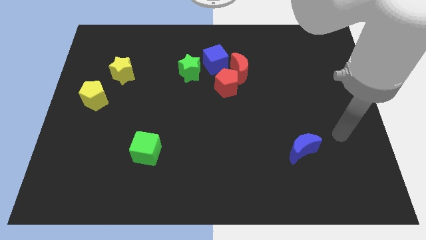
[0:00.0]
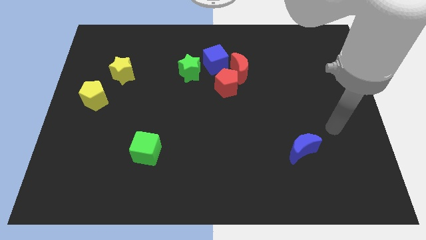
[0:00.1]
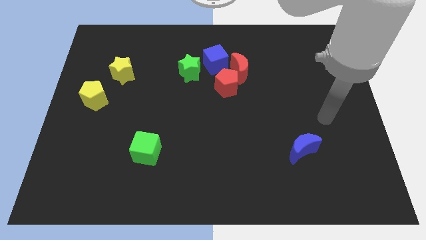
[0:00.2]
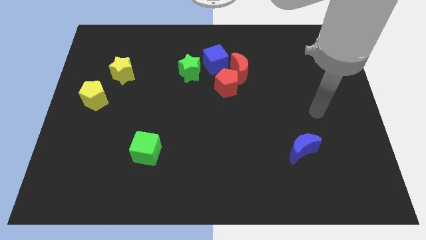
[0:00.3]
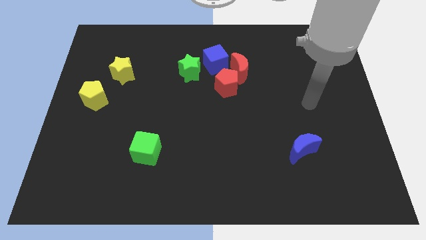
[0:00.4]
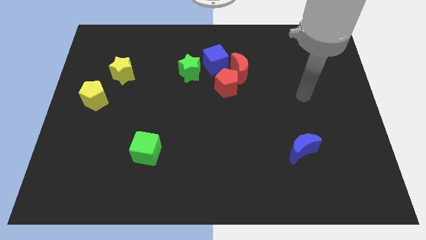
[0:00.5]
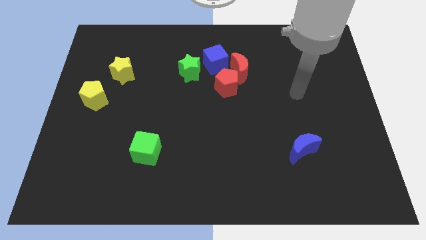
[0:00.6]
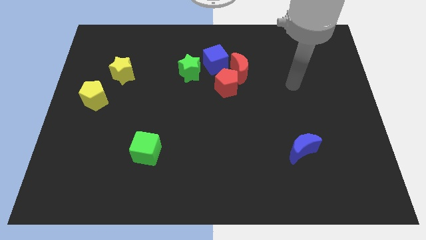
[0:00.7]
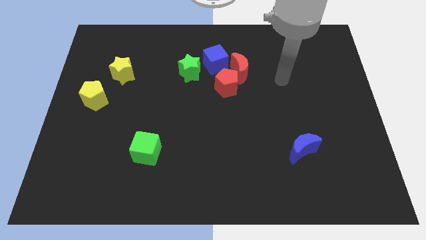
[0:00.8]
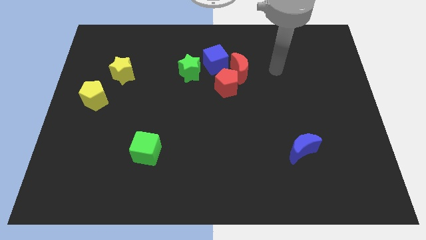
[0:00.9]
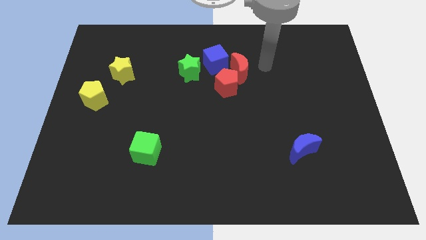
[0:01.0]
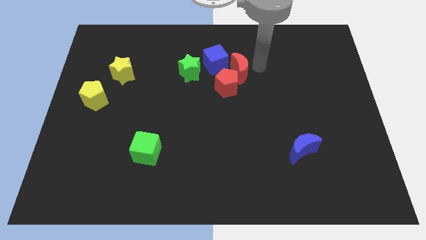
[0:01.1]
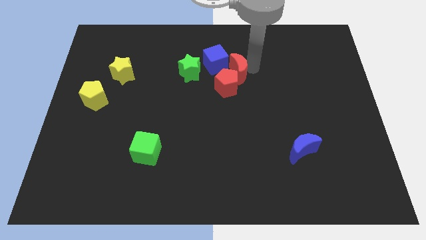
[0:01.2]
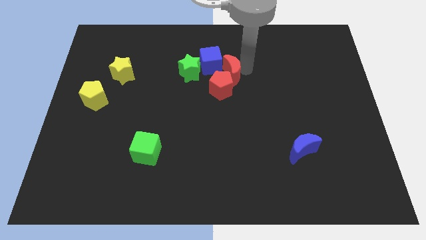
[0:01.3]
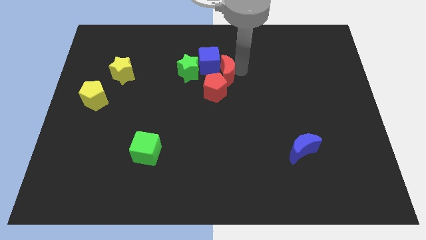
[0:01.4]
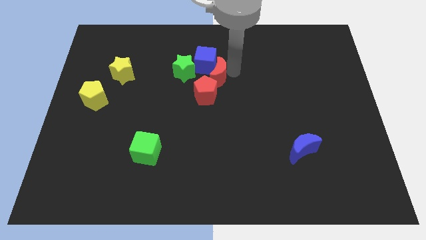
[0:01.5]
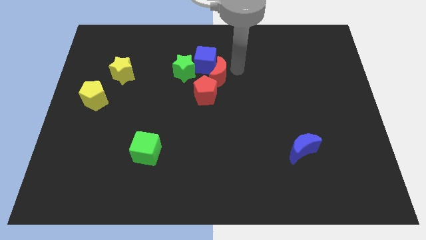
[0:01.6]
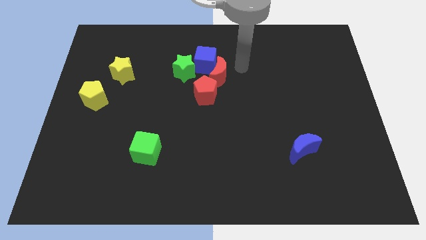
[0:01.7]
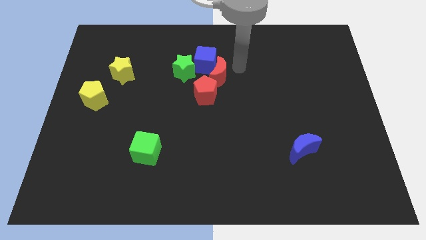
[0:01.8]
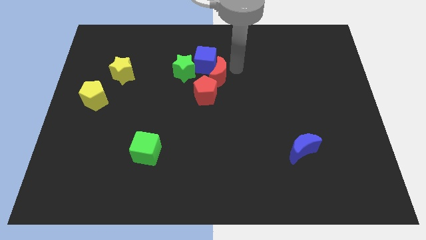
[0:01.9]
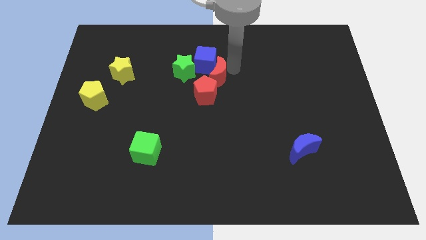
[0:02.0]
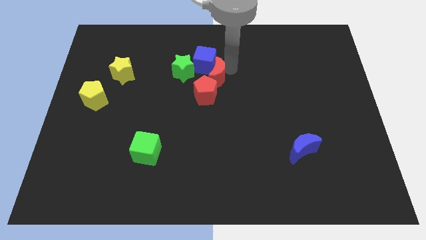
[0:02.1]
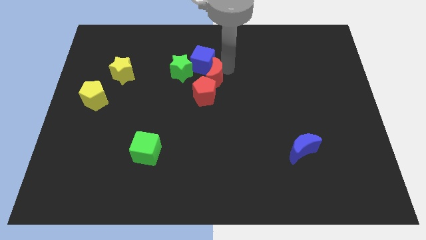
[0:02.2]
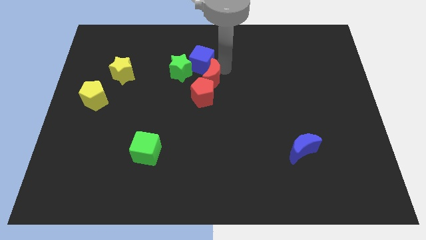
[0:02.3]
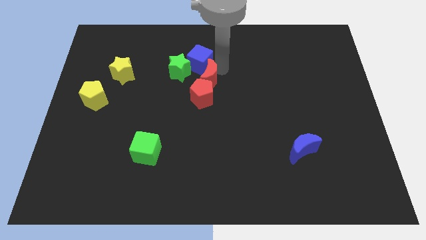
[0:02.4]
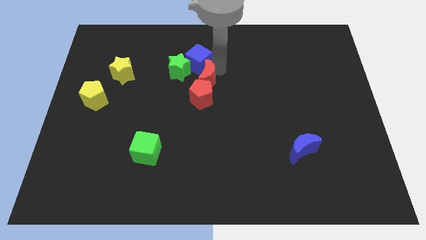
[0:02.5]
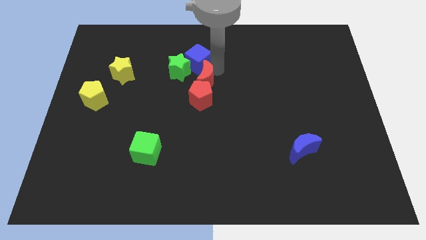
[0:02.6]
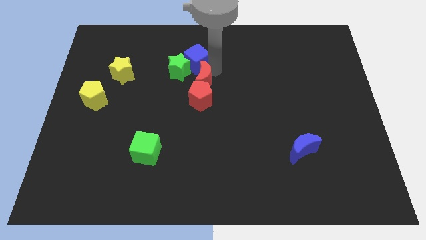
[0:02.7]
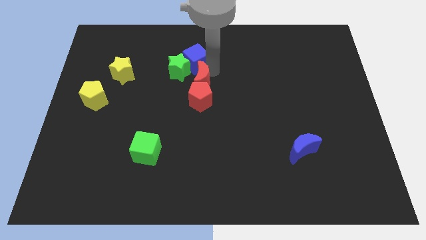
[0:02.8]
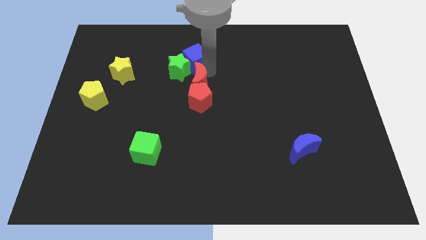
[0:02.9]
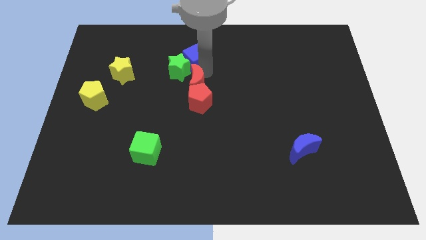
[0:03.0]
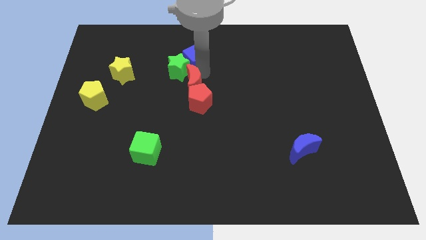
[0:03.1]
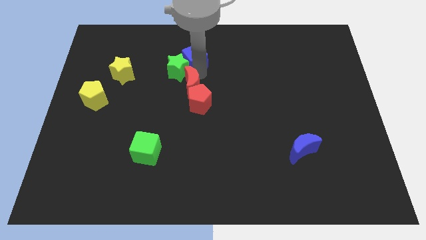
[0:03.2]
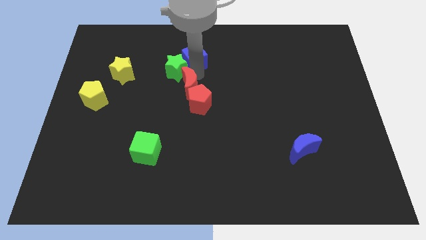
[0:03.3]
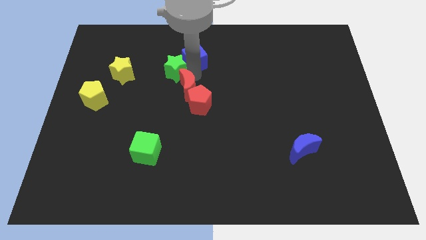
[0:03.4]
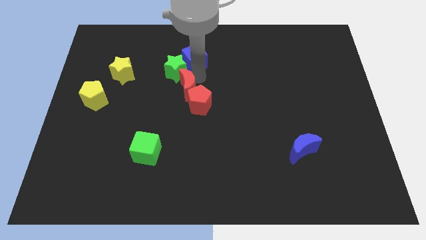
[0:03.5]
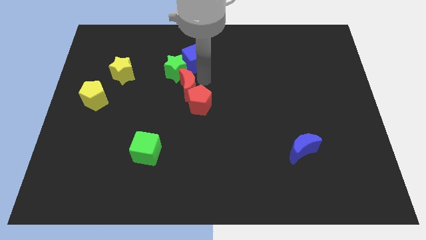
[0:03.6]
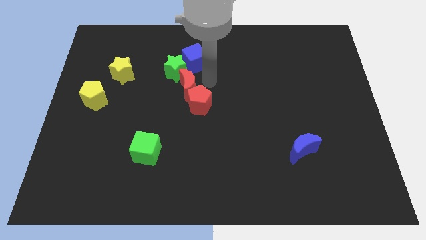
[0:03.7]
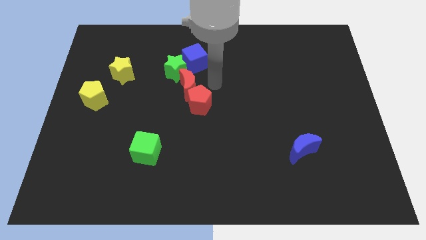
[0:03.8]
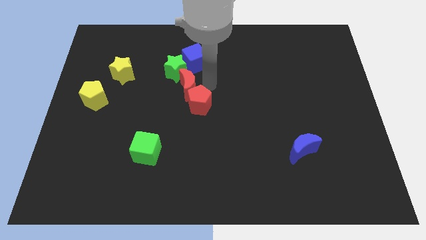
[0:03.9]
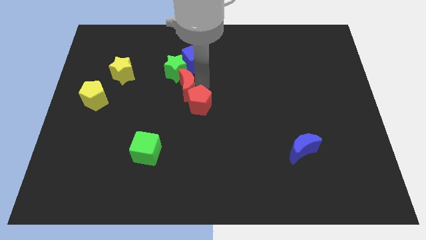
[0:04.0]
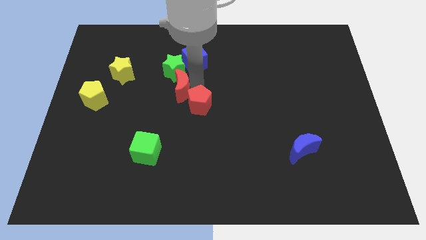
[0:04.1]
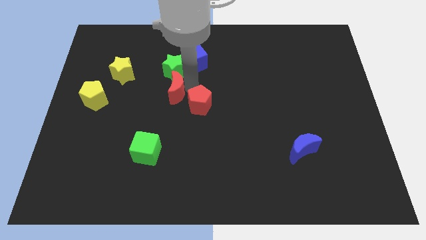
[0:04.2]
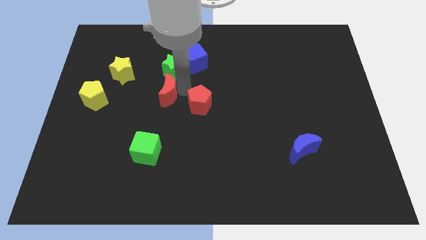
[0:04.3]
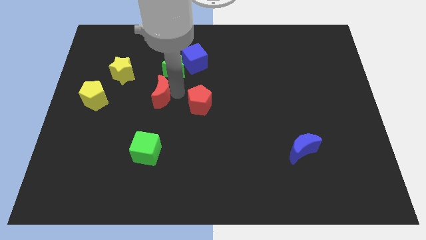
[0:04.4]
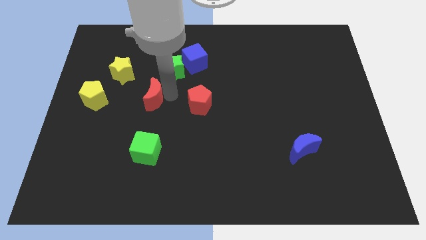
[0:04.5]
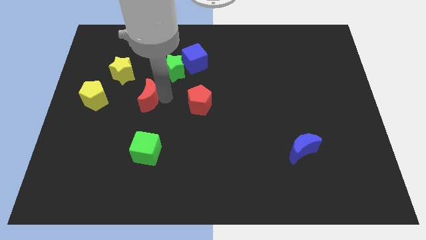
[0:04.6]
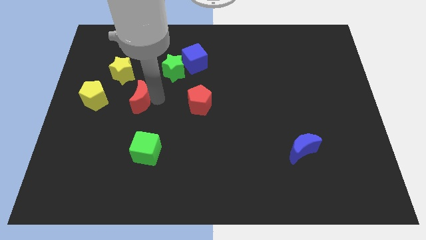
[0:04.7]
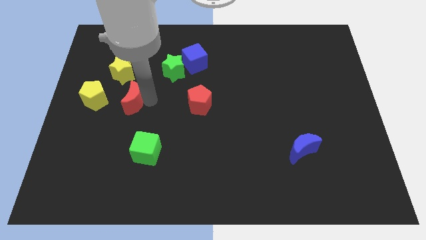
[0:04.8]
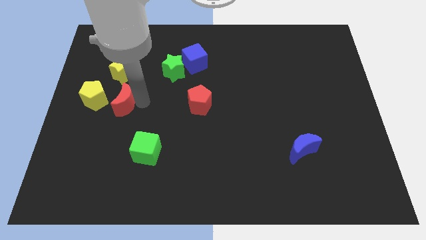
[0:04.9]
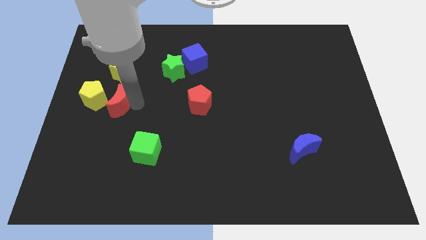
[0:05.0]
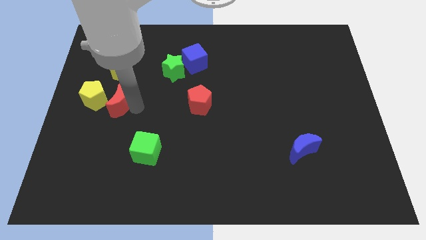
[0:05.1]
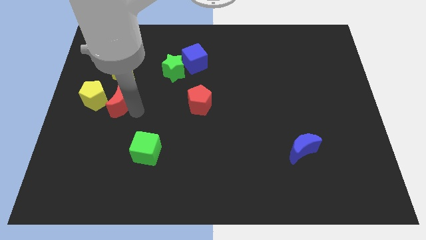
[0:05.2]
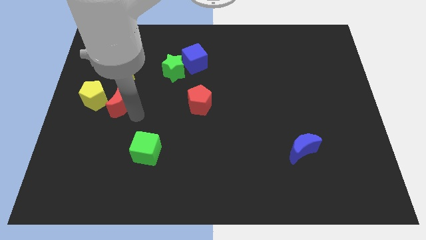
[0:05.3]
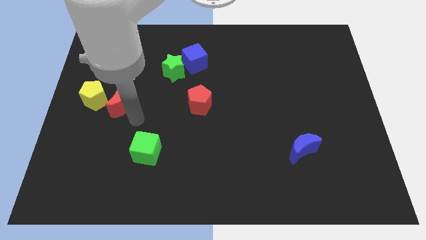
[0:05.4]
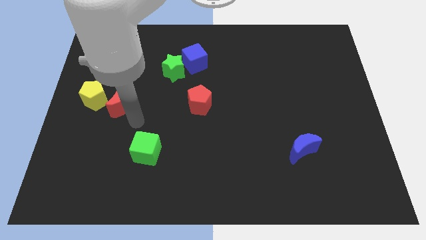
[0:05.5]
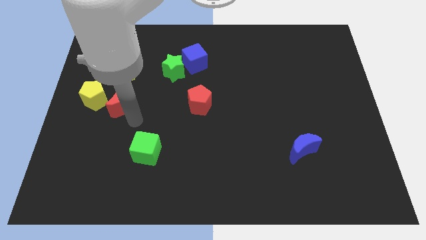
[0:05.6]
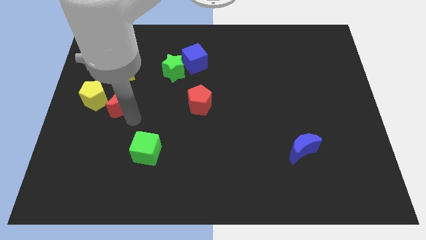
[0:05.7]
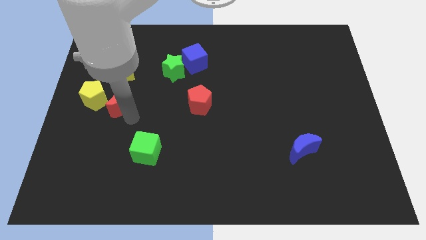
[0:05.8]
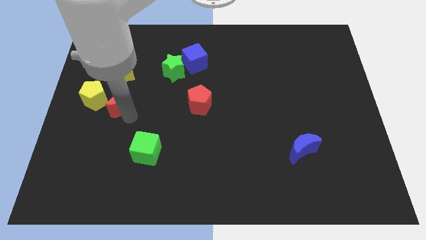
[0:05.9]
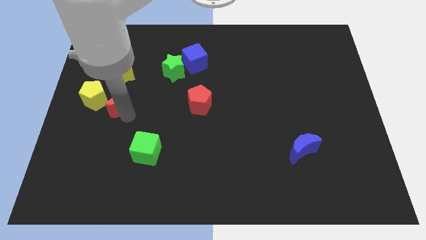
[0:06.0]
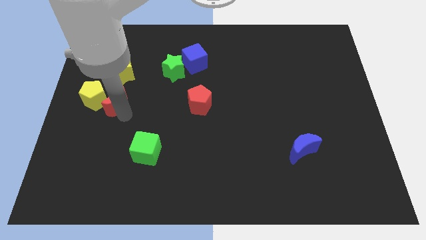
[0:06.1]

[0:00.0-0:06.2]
put the red moon to the yellow pentagon

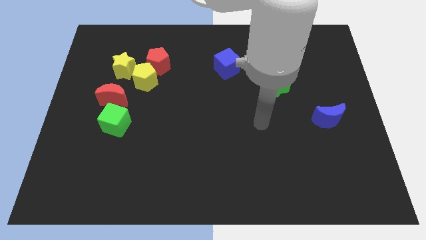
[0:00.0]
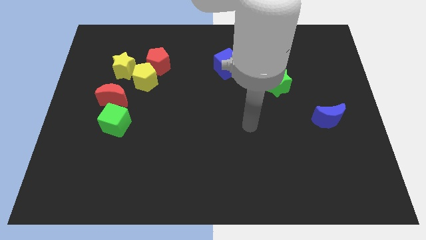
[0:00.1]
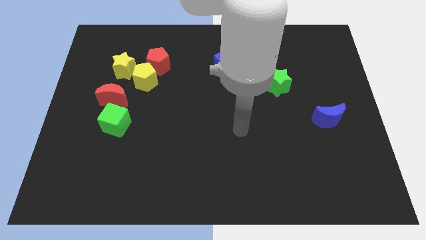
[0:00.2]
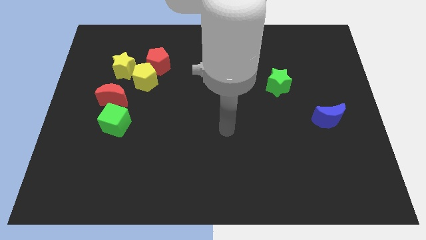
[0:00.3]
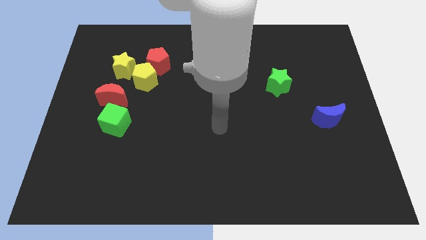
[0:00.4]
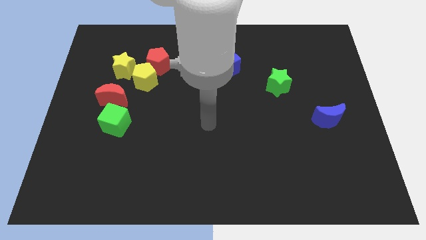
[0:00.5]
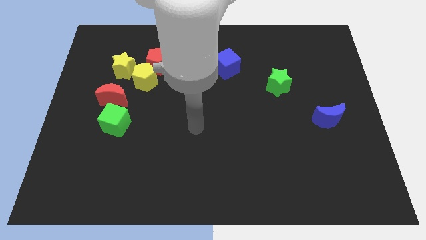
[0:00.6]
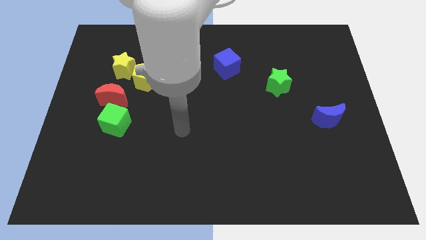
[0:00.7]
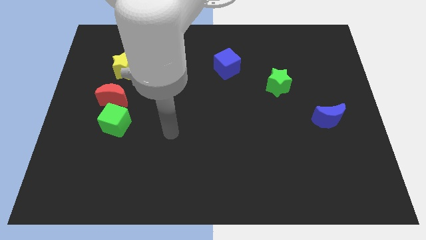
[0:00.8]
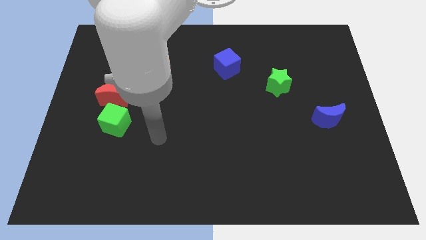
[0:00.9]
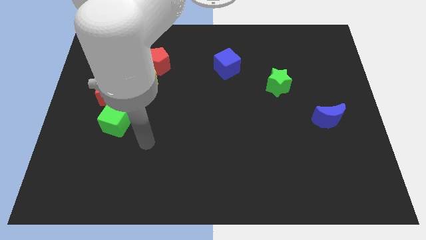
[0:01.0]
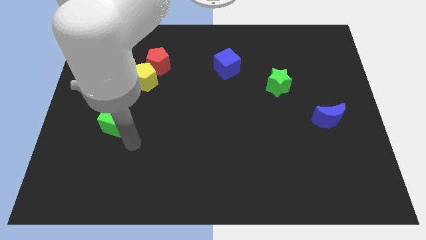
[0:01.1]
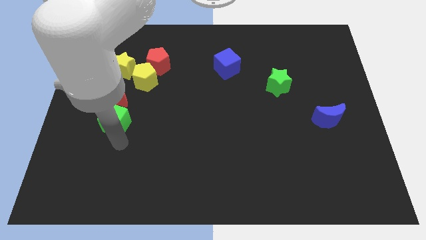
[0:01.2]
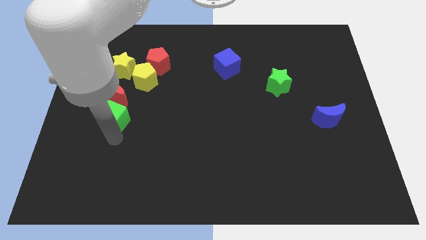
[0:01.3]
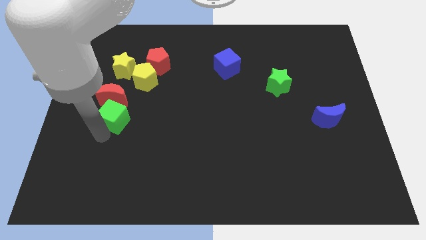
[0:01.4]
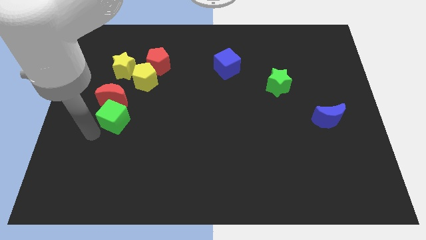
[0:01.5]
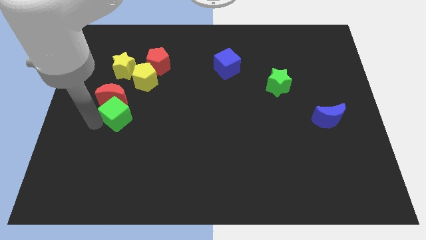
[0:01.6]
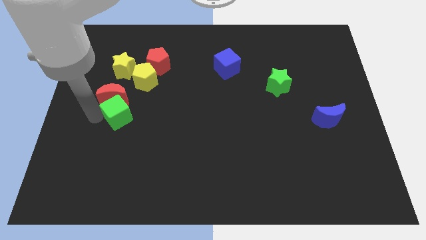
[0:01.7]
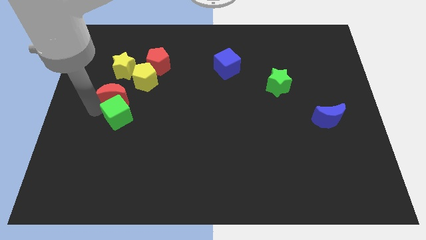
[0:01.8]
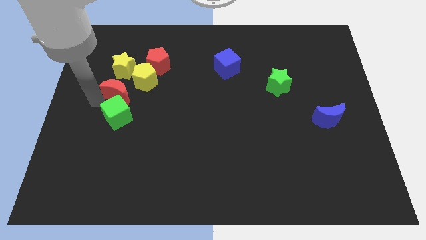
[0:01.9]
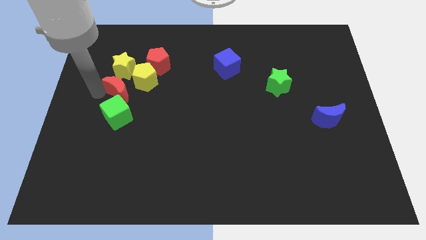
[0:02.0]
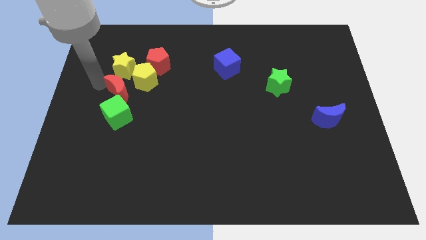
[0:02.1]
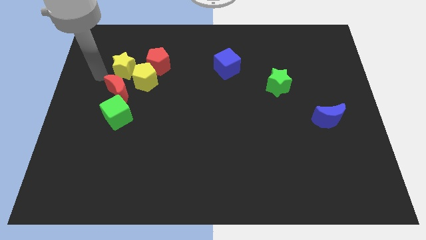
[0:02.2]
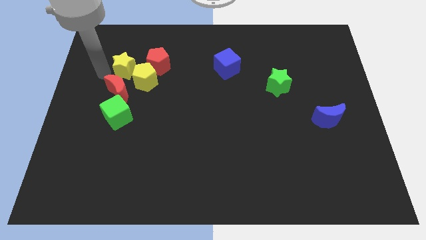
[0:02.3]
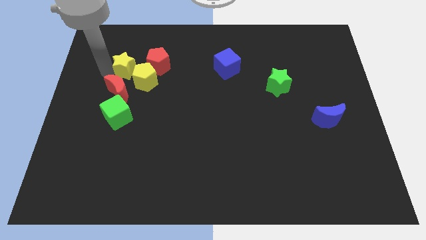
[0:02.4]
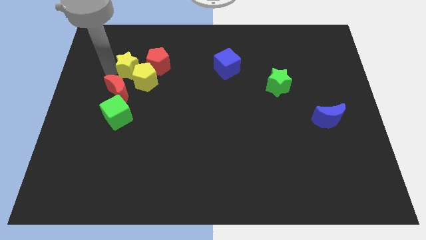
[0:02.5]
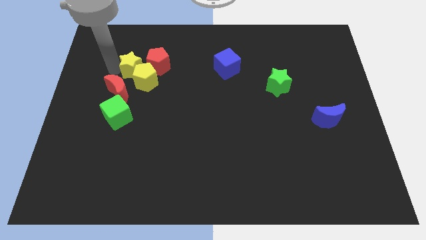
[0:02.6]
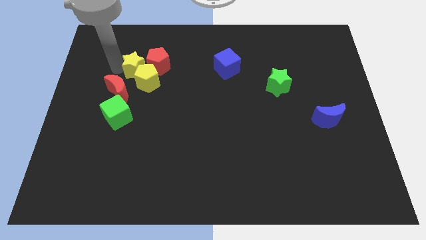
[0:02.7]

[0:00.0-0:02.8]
put the yellow star towards the red pentagon
